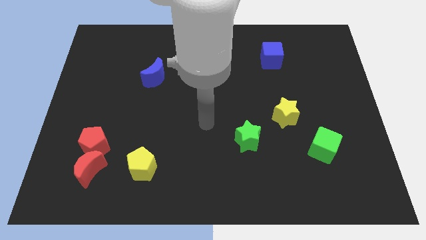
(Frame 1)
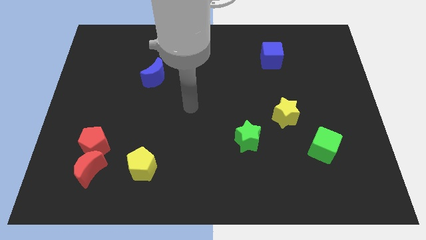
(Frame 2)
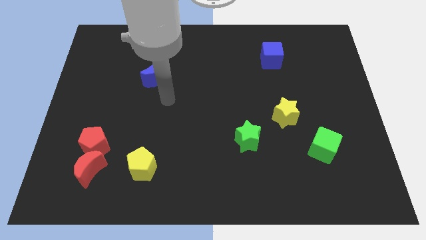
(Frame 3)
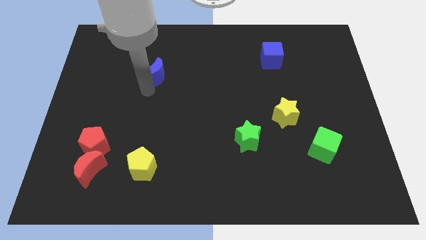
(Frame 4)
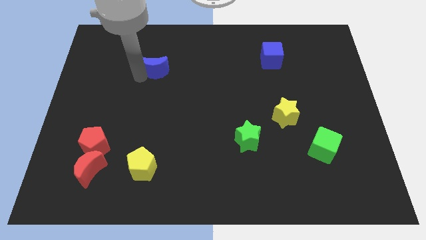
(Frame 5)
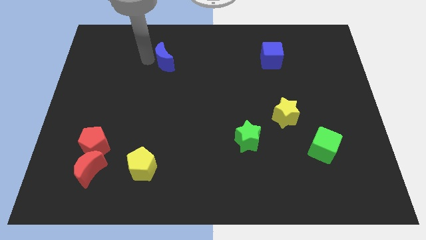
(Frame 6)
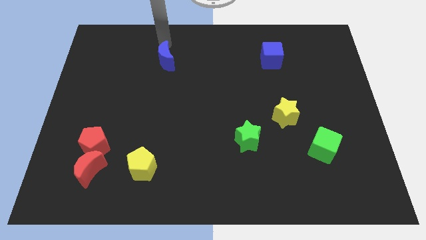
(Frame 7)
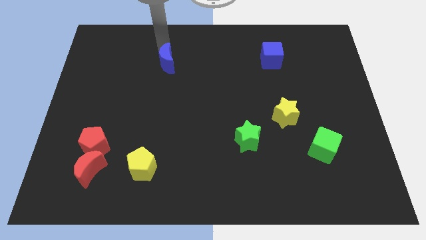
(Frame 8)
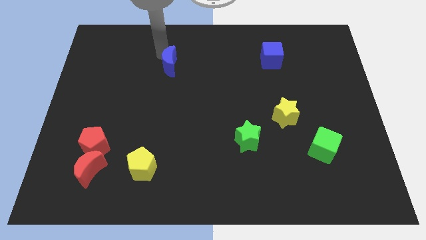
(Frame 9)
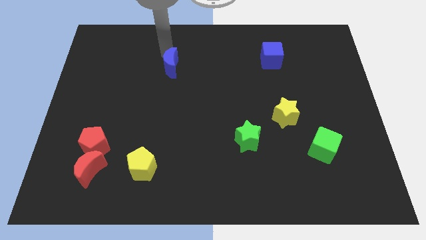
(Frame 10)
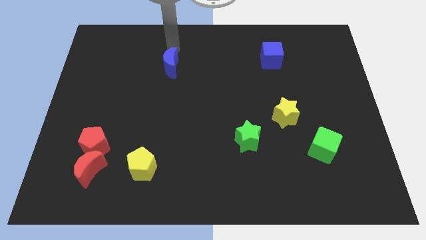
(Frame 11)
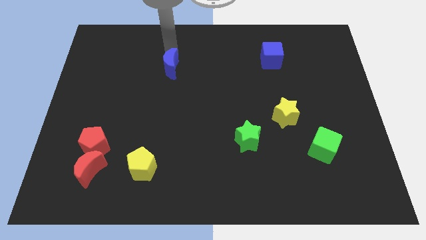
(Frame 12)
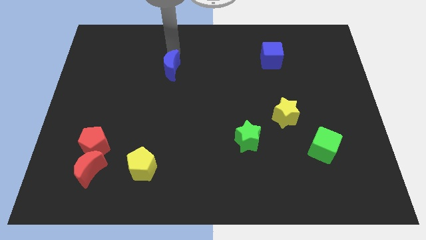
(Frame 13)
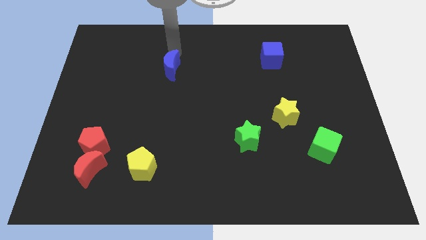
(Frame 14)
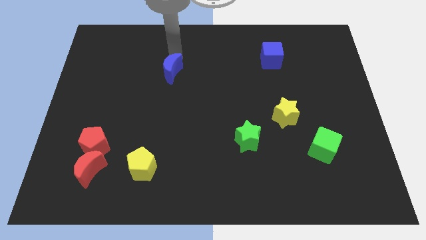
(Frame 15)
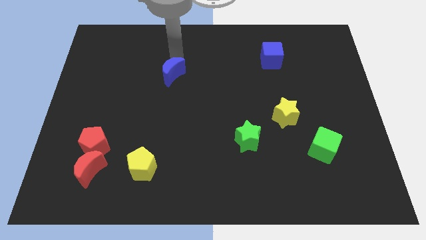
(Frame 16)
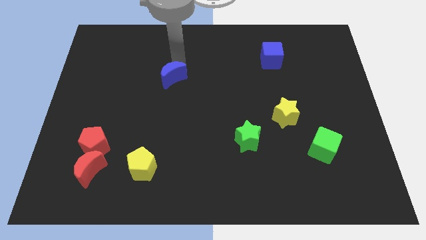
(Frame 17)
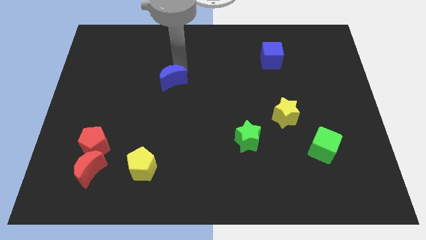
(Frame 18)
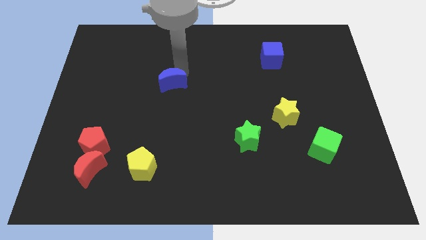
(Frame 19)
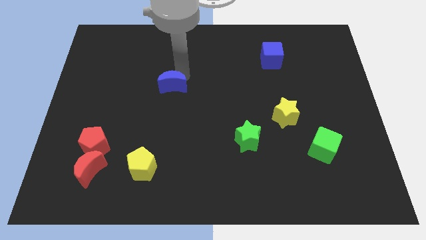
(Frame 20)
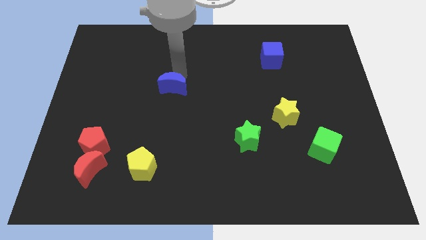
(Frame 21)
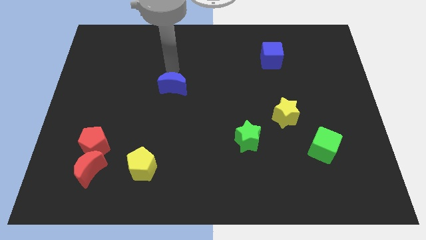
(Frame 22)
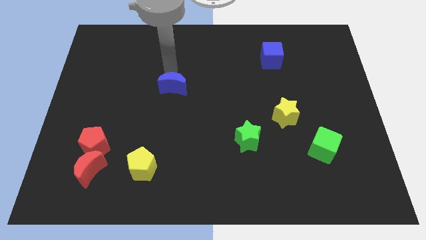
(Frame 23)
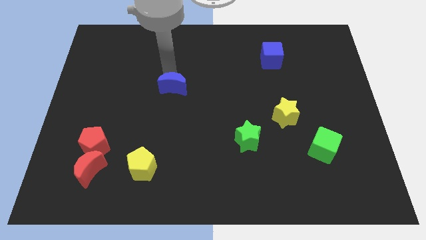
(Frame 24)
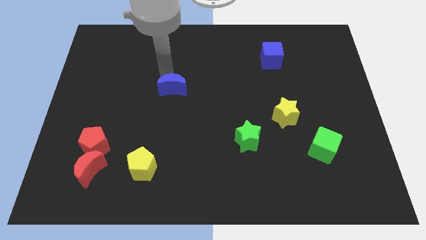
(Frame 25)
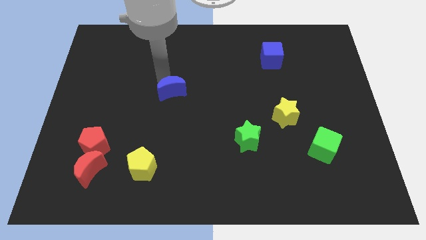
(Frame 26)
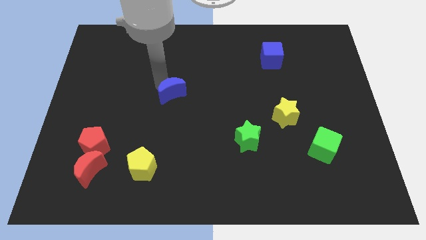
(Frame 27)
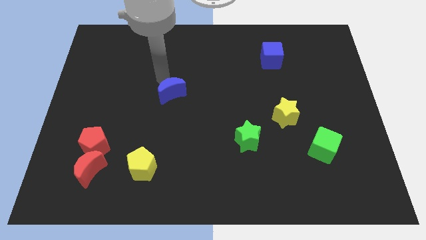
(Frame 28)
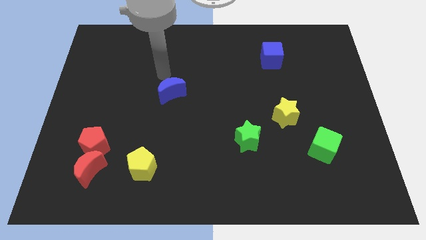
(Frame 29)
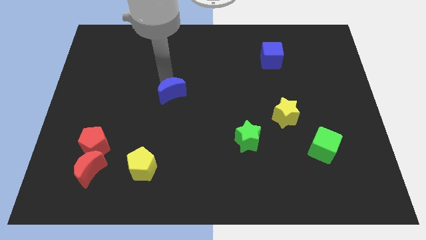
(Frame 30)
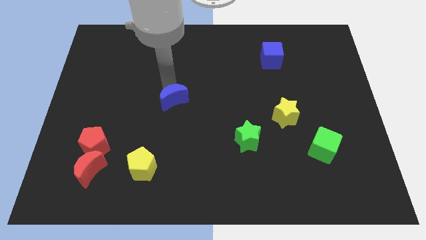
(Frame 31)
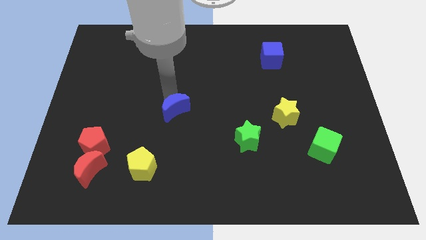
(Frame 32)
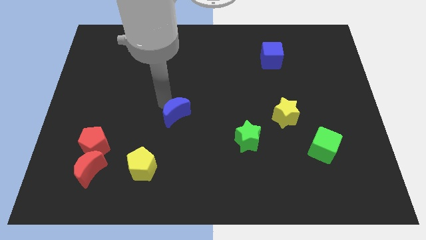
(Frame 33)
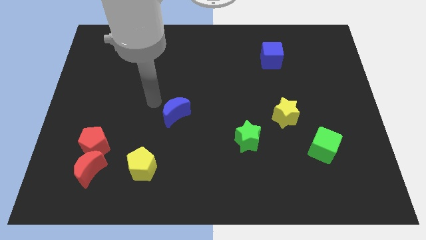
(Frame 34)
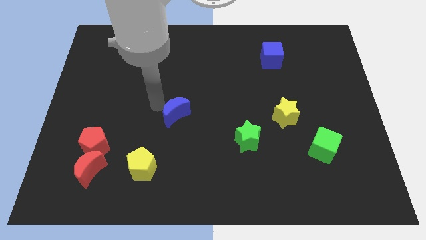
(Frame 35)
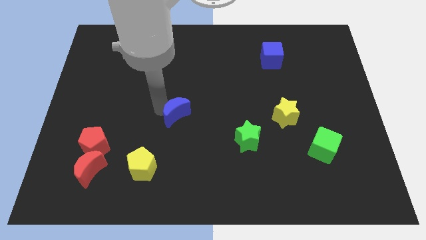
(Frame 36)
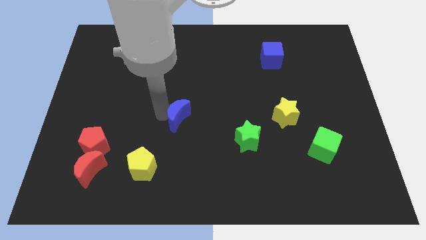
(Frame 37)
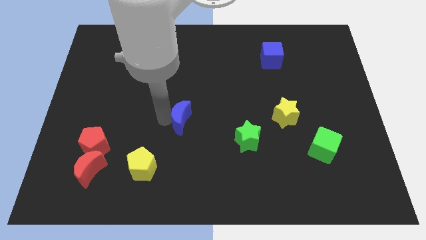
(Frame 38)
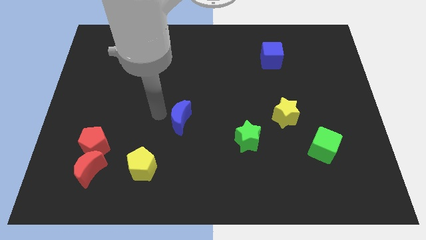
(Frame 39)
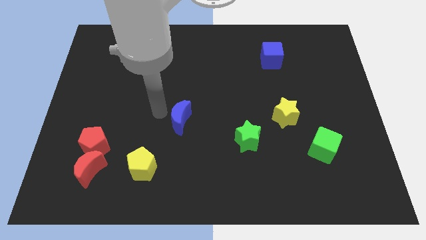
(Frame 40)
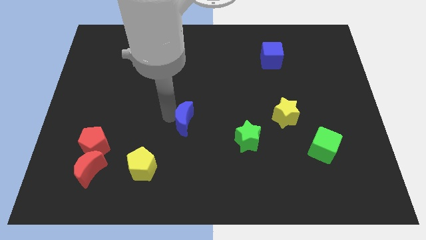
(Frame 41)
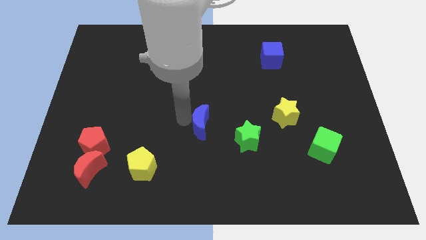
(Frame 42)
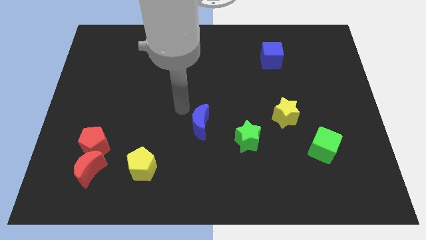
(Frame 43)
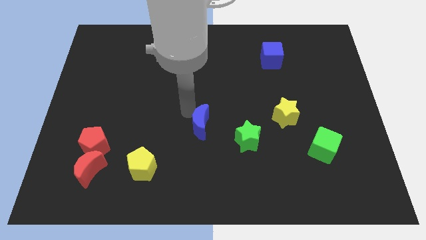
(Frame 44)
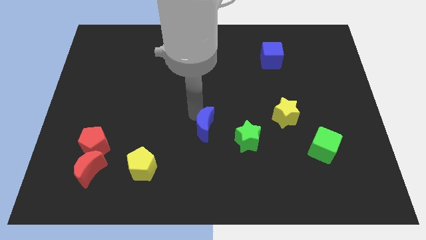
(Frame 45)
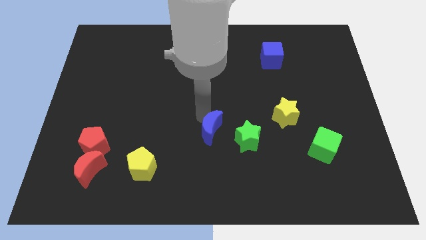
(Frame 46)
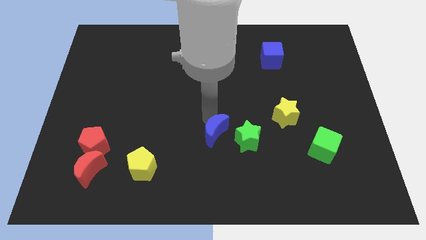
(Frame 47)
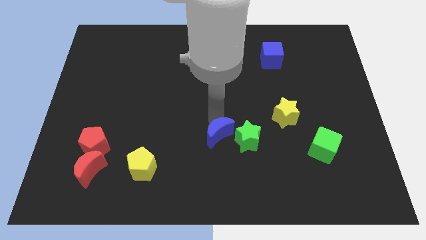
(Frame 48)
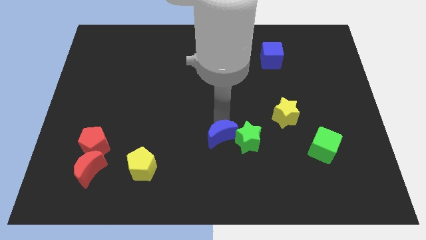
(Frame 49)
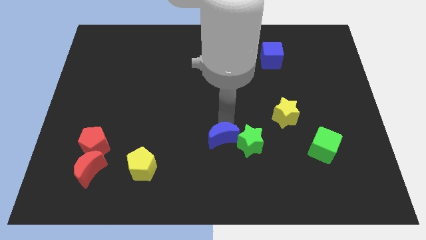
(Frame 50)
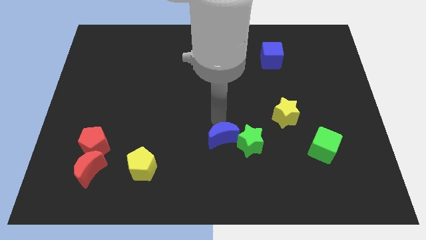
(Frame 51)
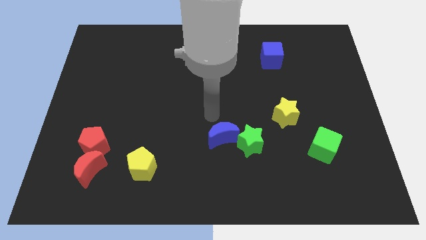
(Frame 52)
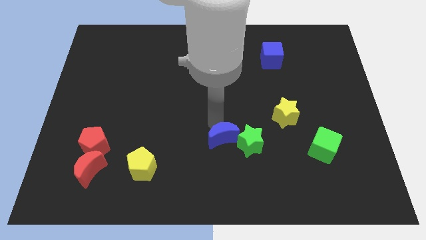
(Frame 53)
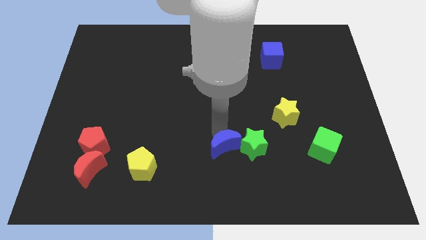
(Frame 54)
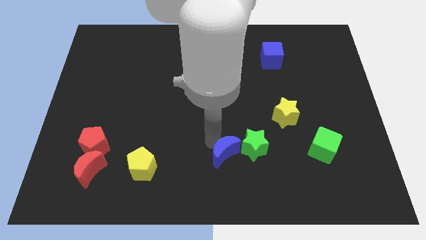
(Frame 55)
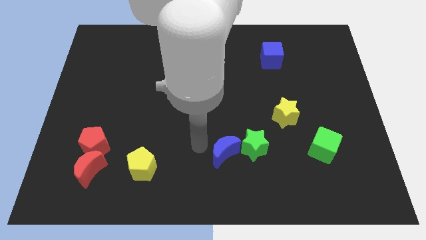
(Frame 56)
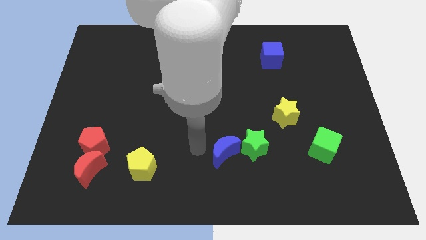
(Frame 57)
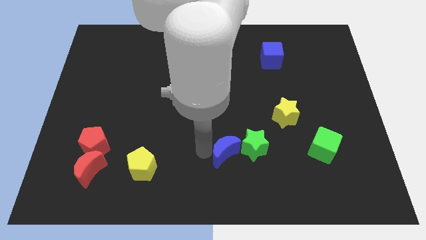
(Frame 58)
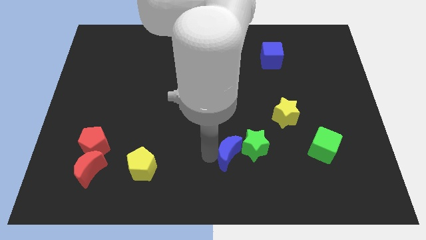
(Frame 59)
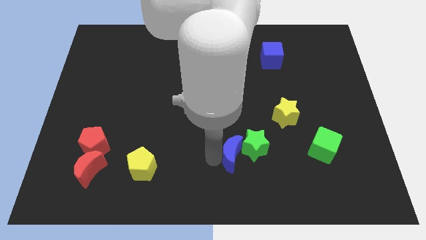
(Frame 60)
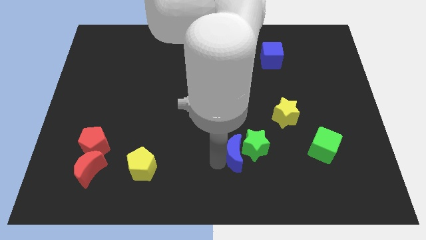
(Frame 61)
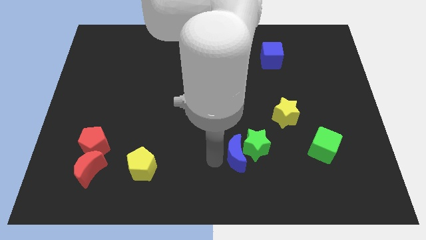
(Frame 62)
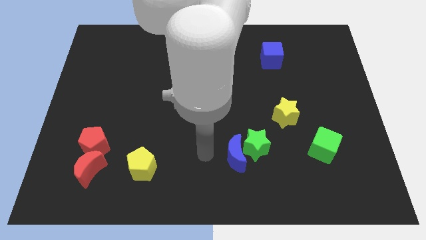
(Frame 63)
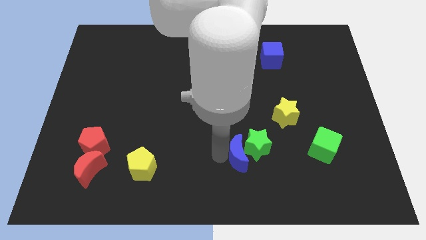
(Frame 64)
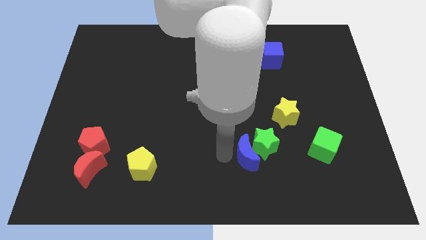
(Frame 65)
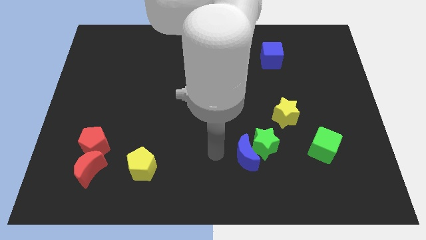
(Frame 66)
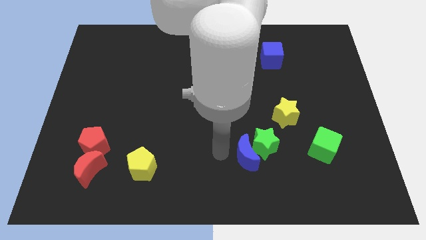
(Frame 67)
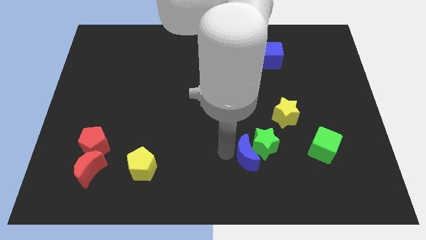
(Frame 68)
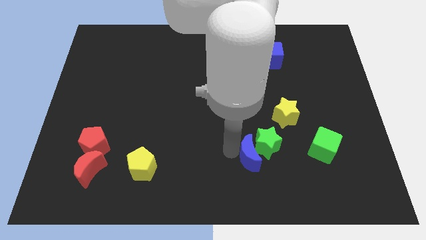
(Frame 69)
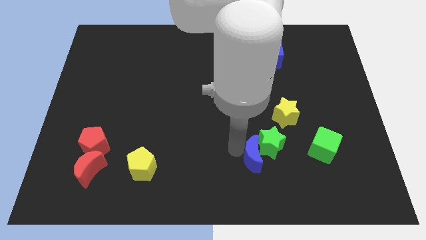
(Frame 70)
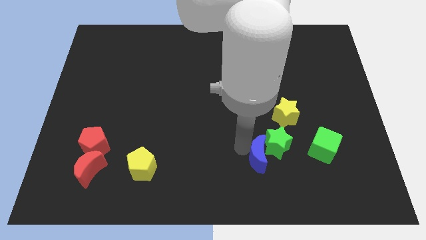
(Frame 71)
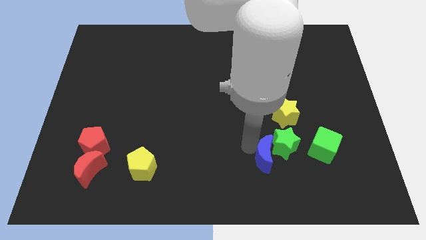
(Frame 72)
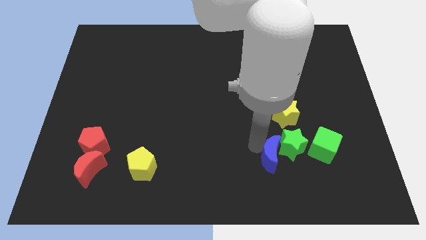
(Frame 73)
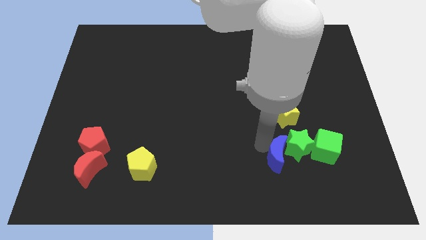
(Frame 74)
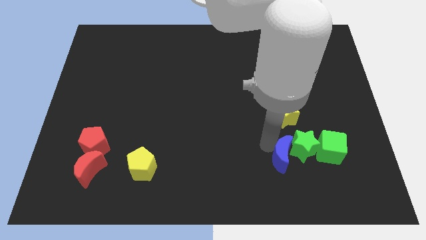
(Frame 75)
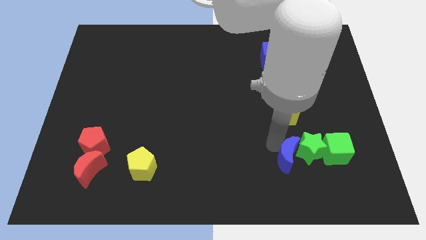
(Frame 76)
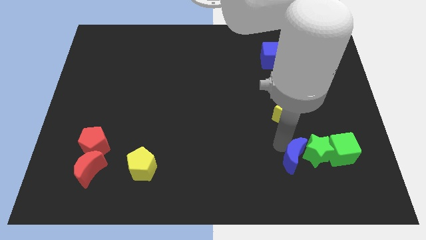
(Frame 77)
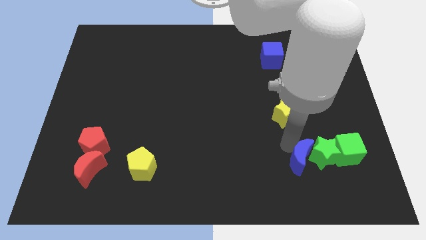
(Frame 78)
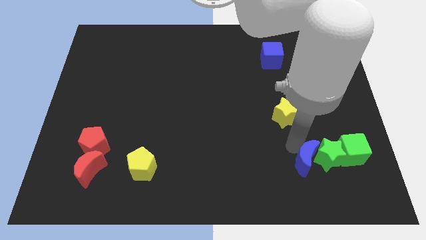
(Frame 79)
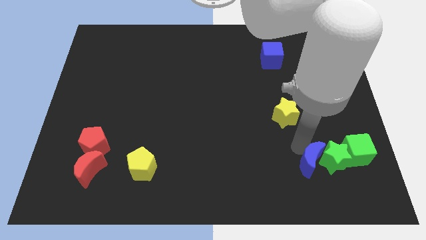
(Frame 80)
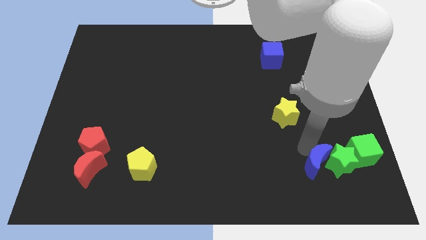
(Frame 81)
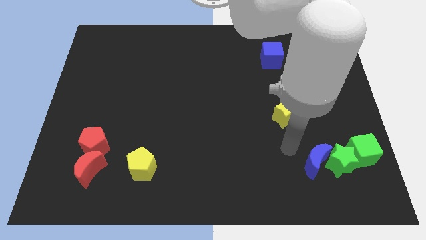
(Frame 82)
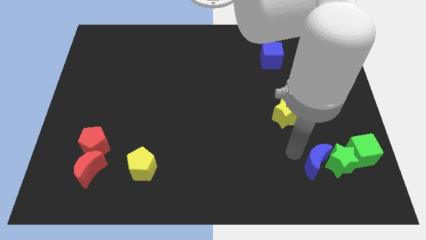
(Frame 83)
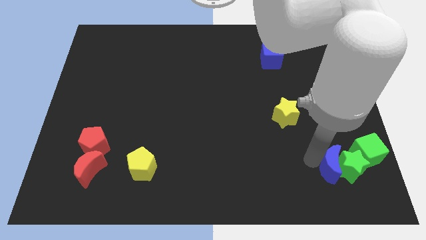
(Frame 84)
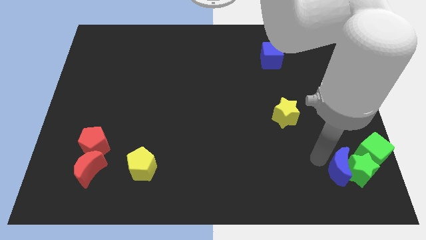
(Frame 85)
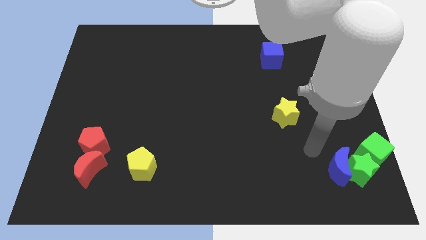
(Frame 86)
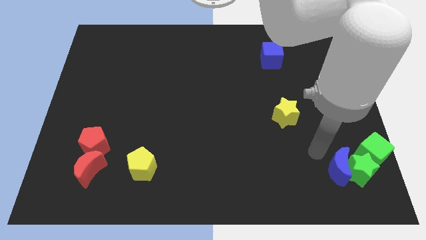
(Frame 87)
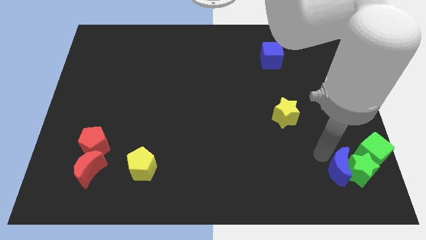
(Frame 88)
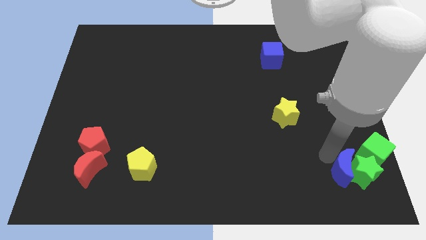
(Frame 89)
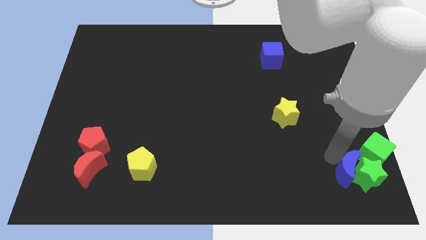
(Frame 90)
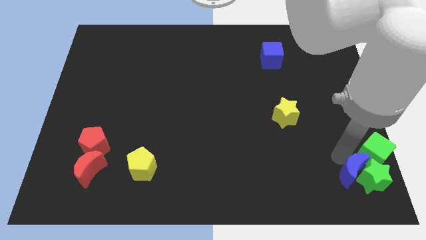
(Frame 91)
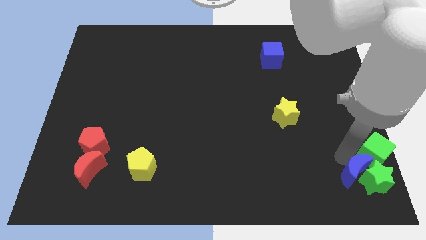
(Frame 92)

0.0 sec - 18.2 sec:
put the blue moon to the bottom right
